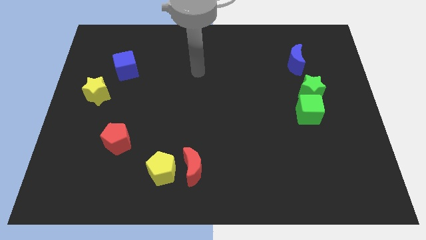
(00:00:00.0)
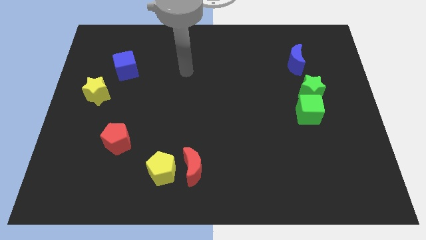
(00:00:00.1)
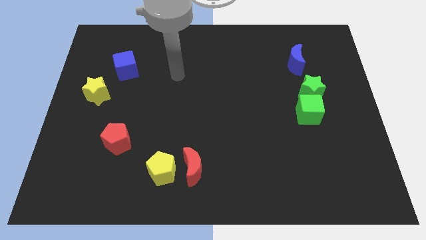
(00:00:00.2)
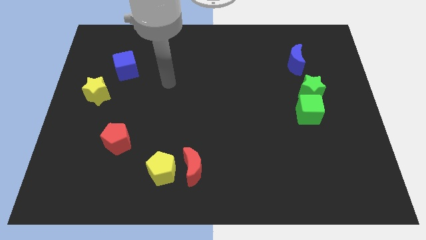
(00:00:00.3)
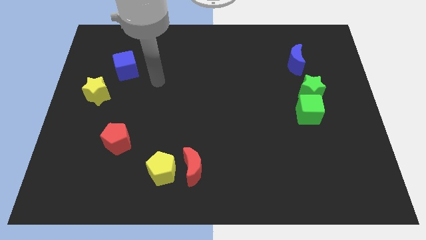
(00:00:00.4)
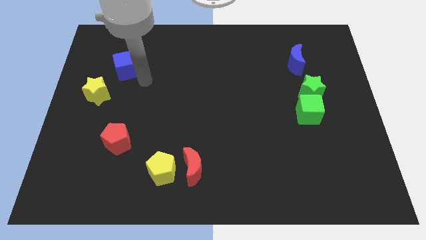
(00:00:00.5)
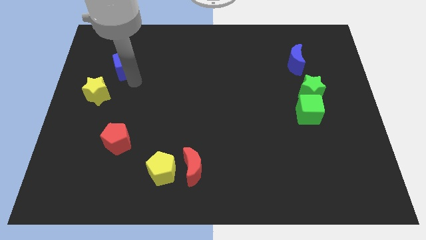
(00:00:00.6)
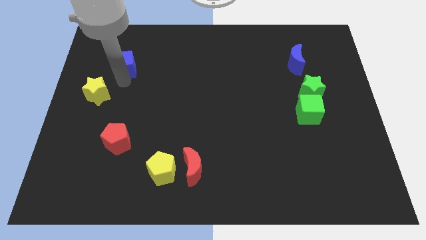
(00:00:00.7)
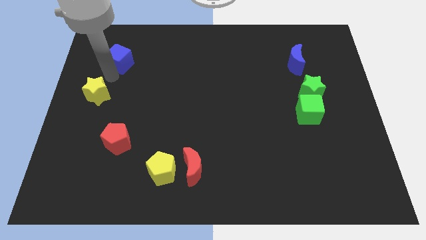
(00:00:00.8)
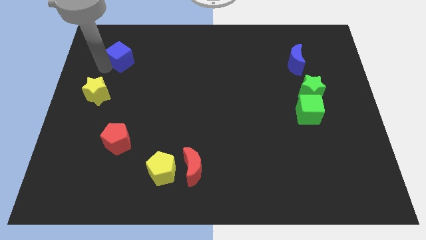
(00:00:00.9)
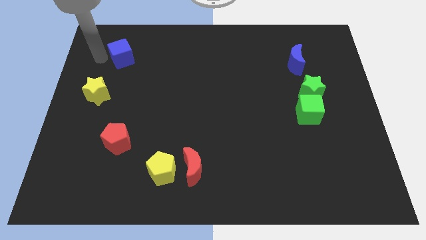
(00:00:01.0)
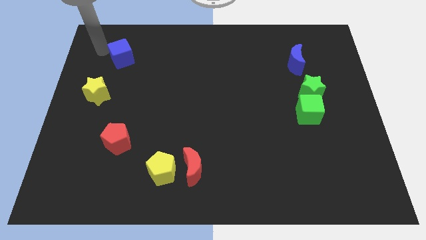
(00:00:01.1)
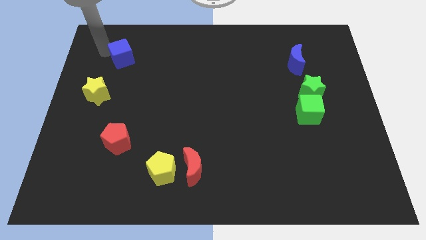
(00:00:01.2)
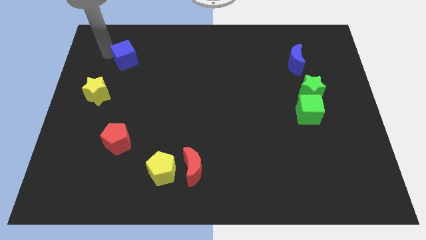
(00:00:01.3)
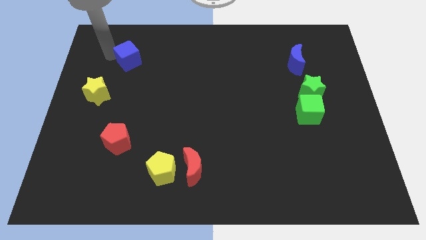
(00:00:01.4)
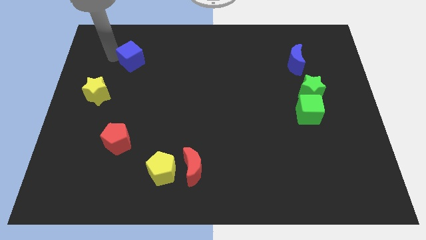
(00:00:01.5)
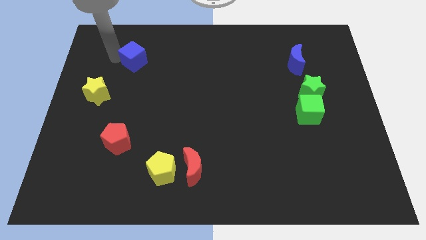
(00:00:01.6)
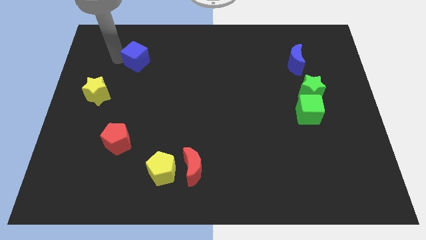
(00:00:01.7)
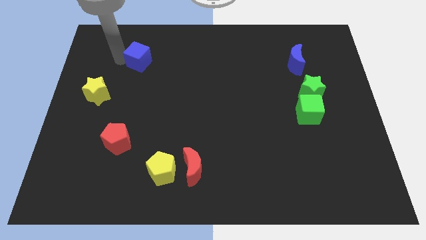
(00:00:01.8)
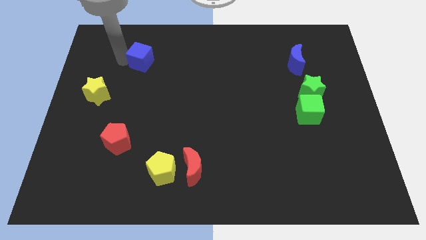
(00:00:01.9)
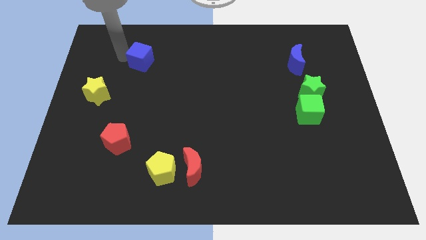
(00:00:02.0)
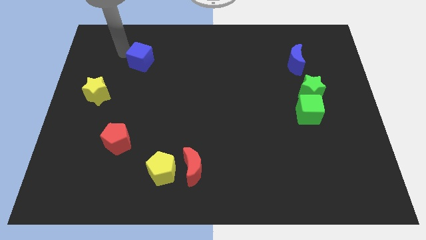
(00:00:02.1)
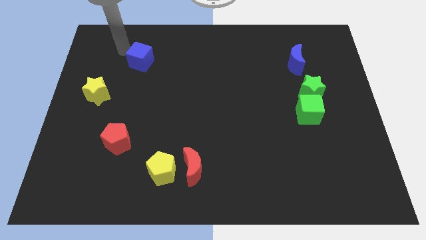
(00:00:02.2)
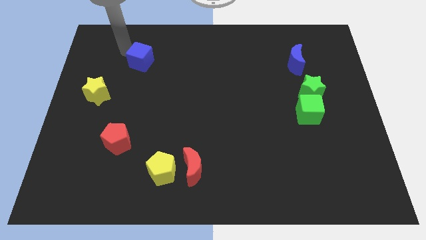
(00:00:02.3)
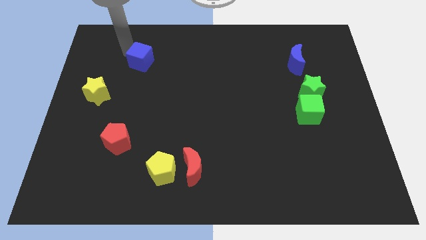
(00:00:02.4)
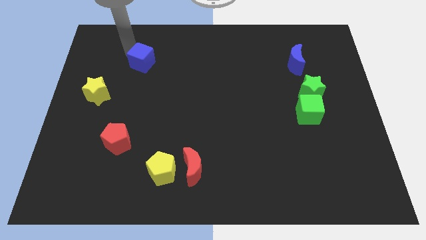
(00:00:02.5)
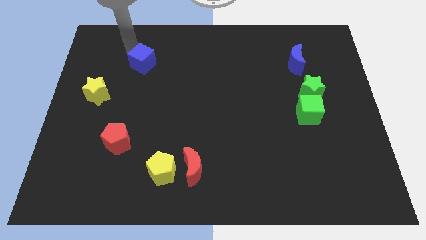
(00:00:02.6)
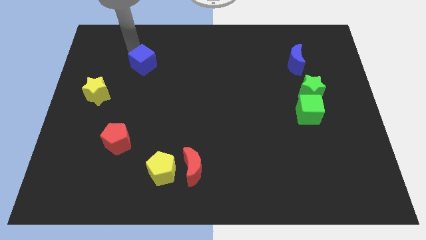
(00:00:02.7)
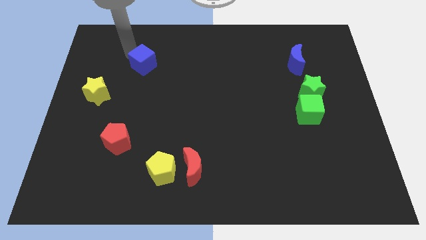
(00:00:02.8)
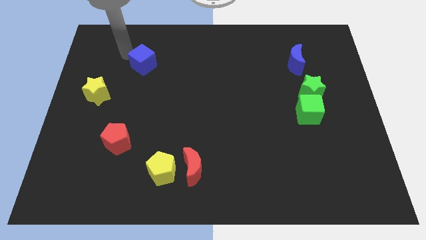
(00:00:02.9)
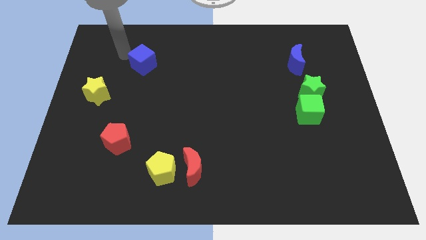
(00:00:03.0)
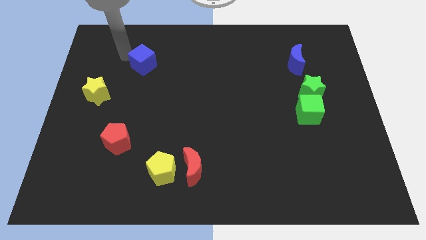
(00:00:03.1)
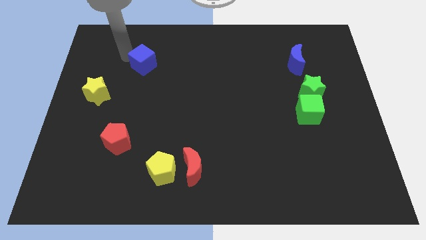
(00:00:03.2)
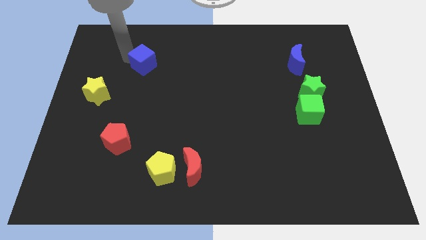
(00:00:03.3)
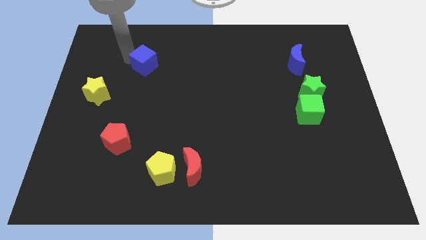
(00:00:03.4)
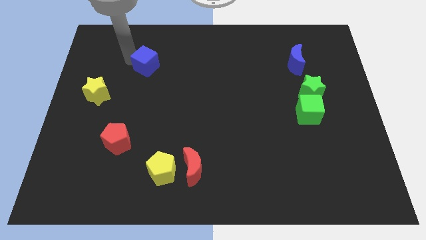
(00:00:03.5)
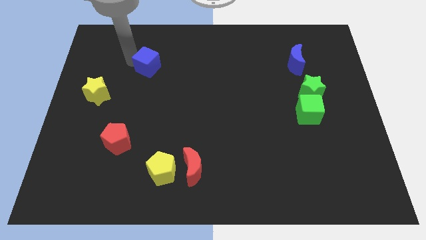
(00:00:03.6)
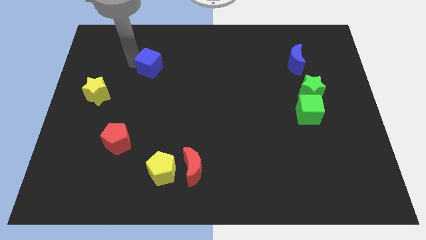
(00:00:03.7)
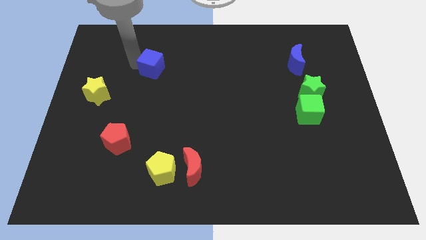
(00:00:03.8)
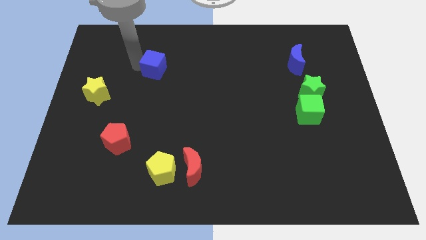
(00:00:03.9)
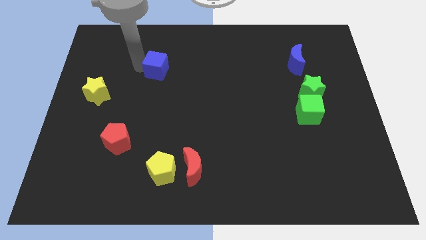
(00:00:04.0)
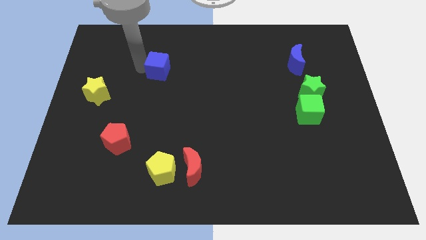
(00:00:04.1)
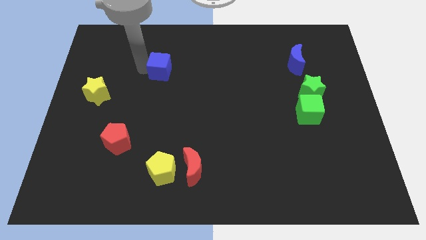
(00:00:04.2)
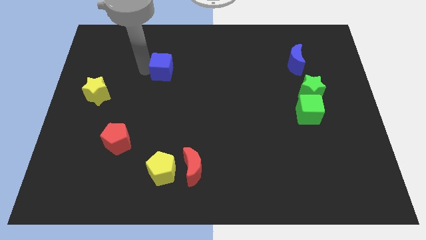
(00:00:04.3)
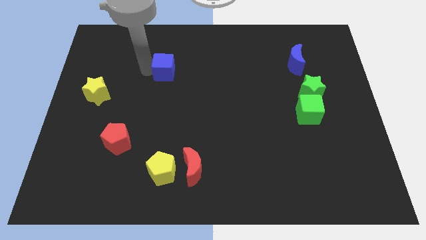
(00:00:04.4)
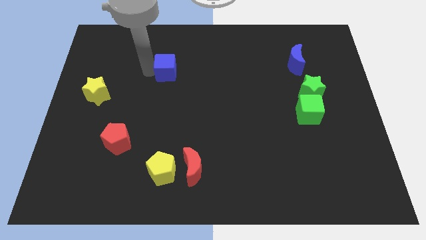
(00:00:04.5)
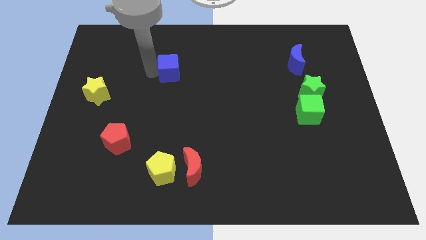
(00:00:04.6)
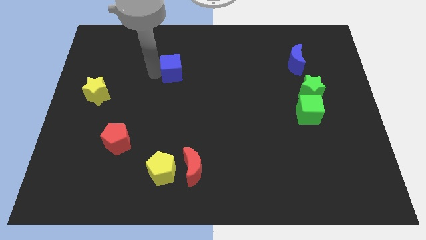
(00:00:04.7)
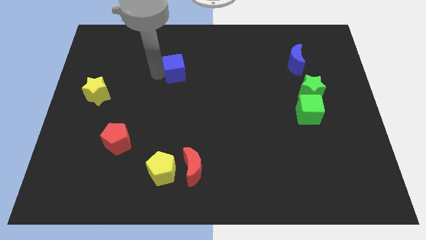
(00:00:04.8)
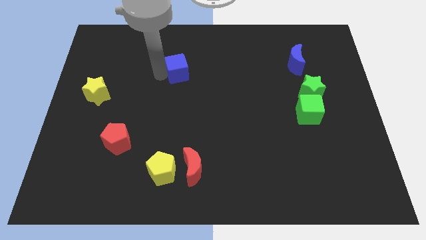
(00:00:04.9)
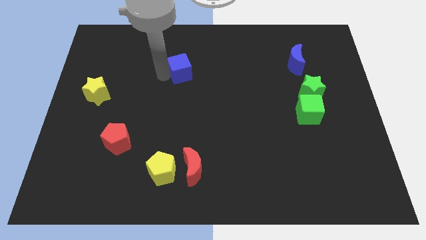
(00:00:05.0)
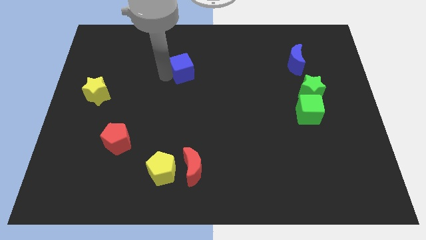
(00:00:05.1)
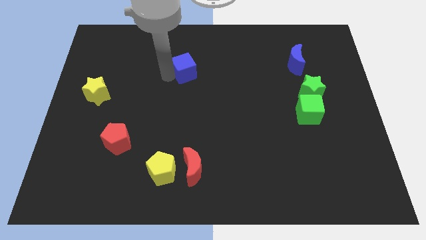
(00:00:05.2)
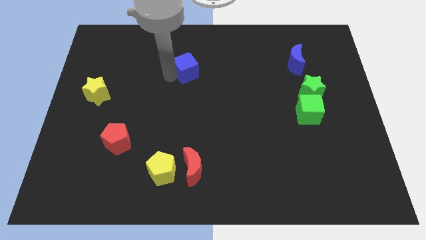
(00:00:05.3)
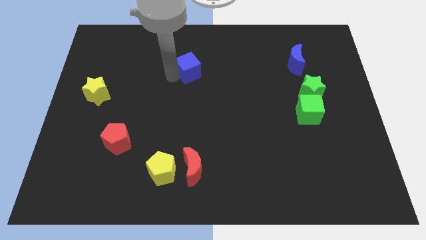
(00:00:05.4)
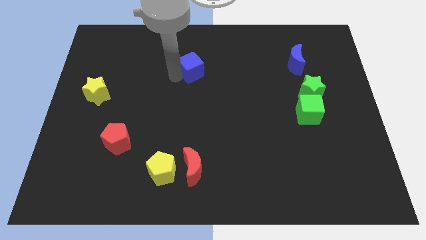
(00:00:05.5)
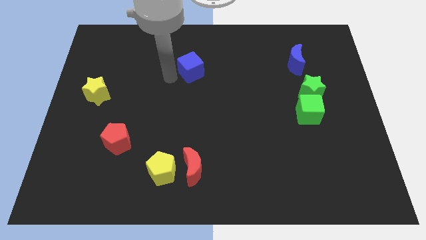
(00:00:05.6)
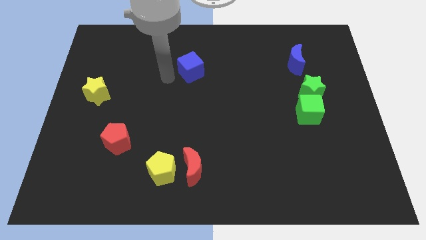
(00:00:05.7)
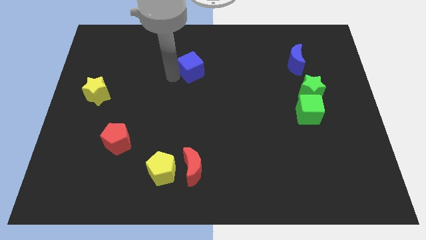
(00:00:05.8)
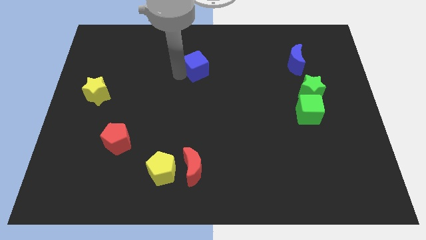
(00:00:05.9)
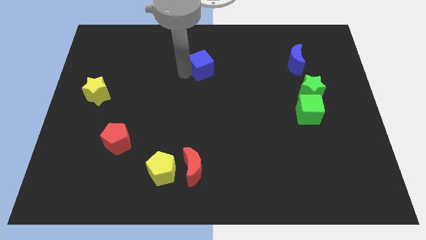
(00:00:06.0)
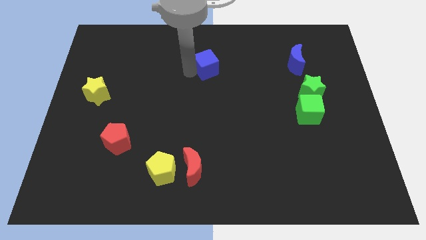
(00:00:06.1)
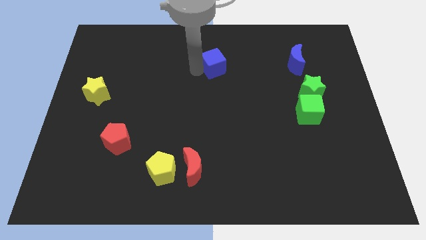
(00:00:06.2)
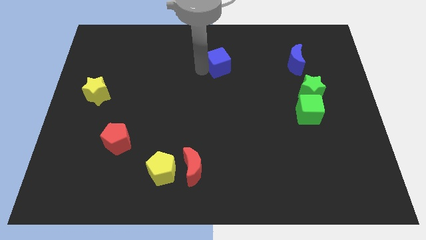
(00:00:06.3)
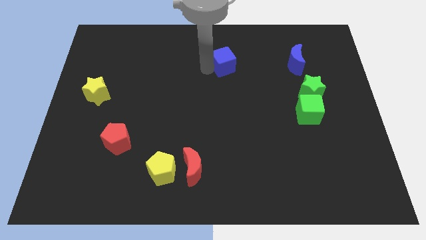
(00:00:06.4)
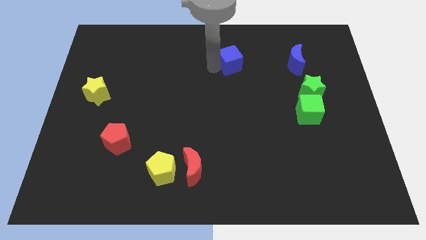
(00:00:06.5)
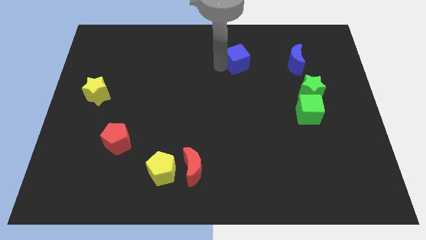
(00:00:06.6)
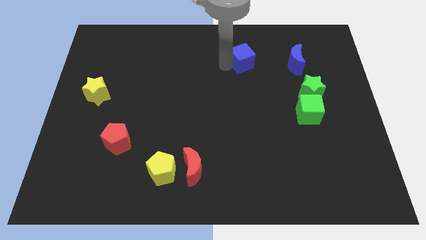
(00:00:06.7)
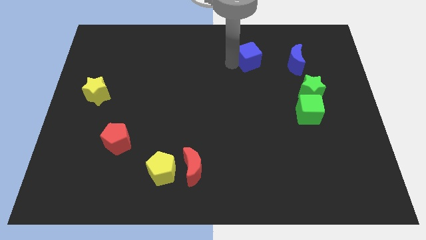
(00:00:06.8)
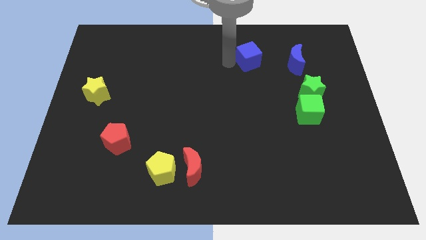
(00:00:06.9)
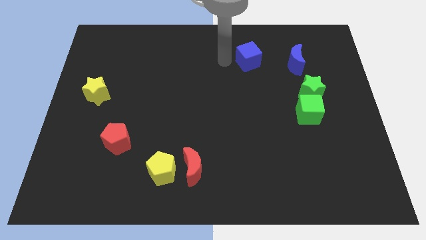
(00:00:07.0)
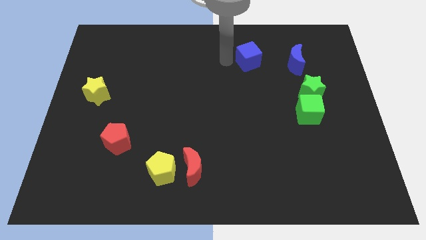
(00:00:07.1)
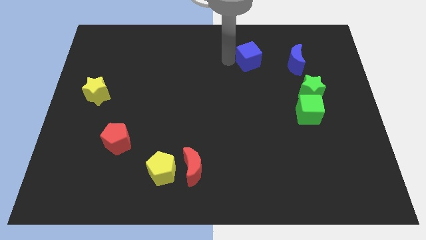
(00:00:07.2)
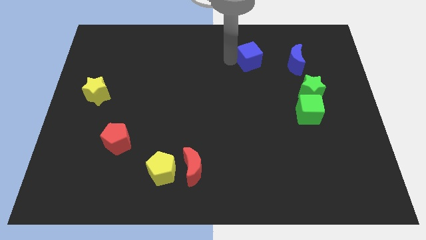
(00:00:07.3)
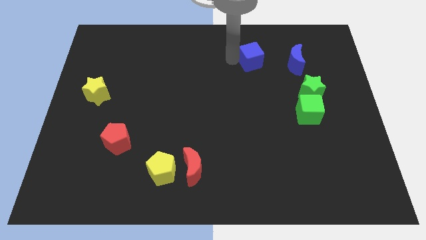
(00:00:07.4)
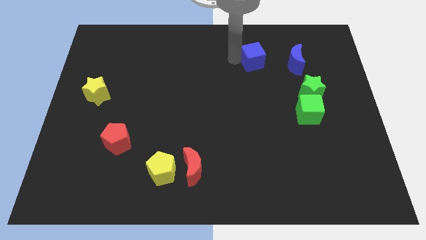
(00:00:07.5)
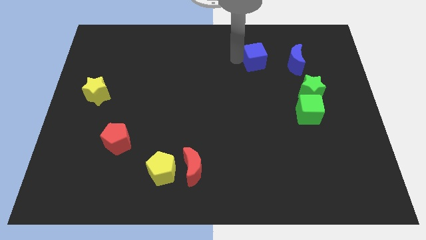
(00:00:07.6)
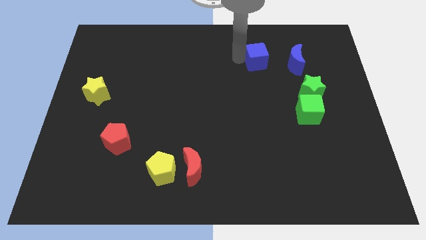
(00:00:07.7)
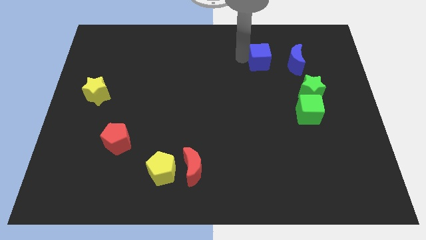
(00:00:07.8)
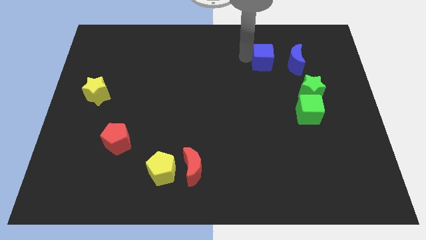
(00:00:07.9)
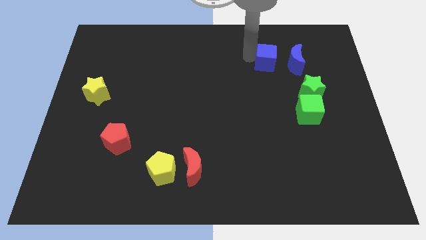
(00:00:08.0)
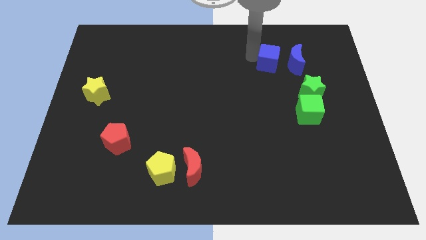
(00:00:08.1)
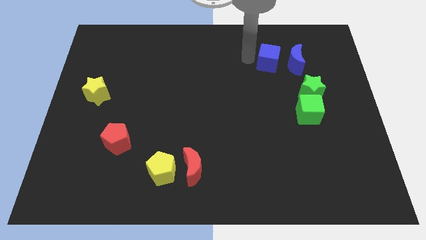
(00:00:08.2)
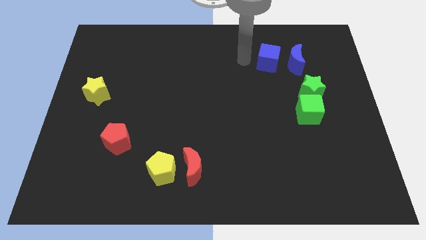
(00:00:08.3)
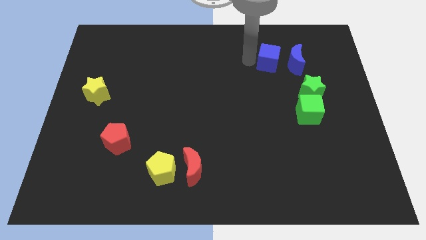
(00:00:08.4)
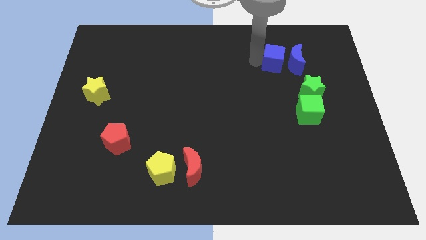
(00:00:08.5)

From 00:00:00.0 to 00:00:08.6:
slide the blue cube to the blue moon
